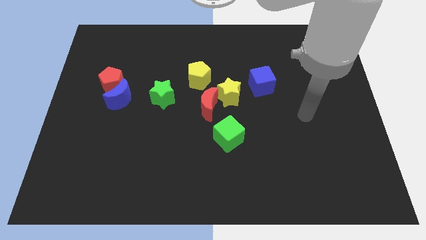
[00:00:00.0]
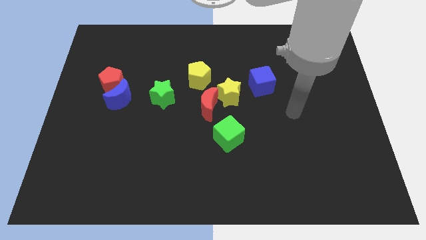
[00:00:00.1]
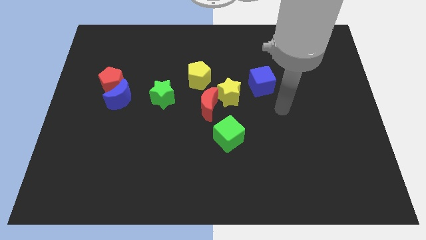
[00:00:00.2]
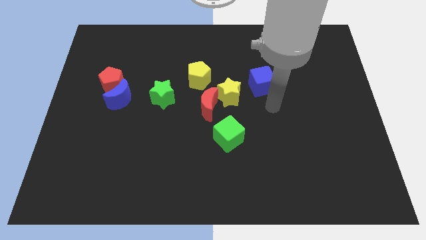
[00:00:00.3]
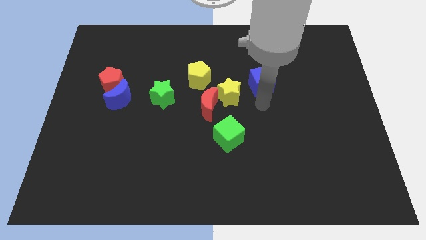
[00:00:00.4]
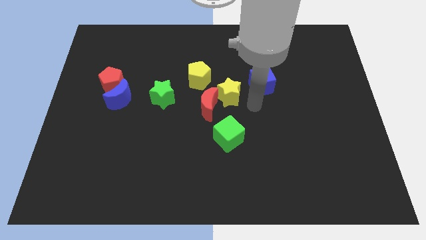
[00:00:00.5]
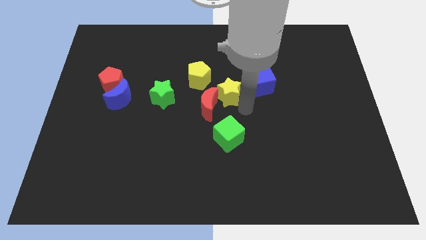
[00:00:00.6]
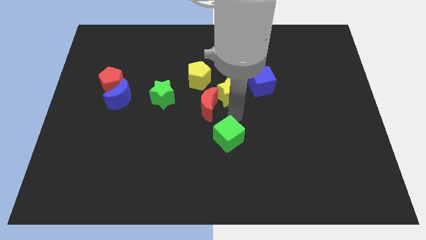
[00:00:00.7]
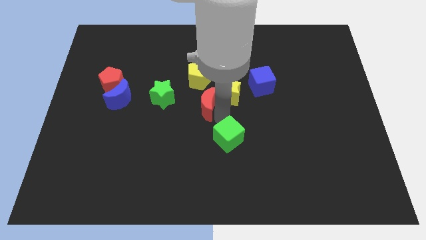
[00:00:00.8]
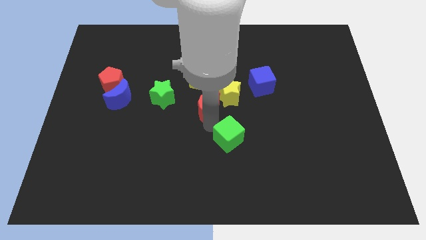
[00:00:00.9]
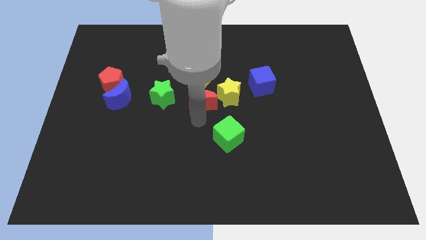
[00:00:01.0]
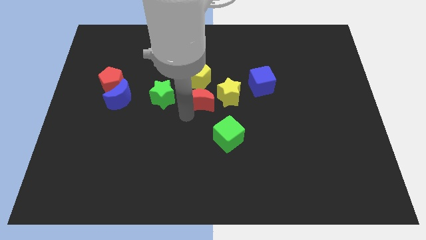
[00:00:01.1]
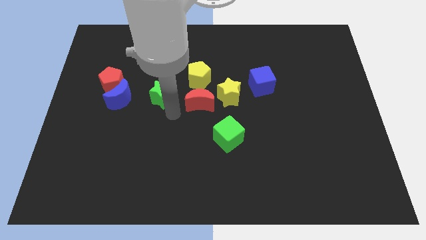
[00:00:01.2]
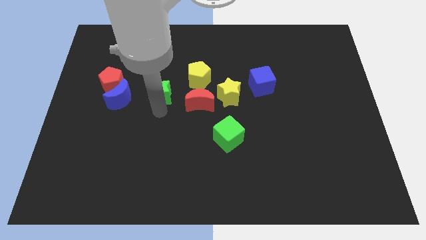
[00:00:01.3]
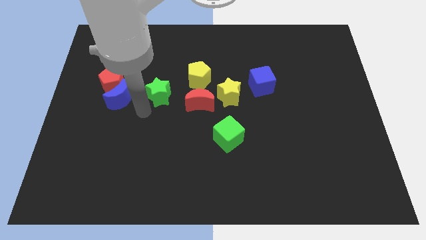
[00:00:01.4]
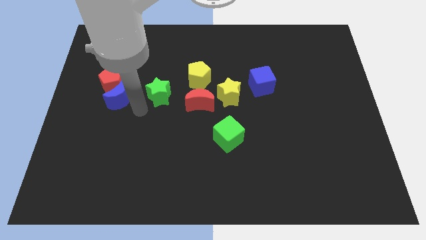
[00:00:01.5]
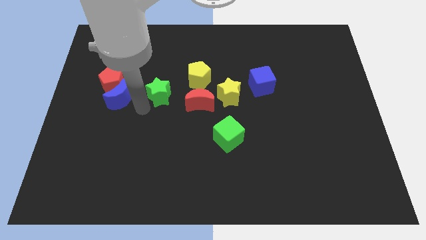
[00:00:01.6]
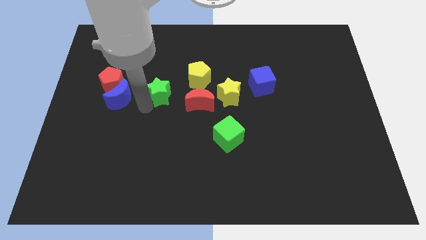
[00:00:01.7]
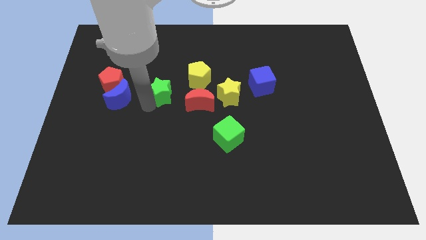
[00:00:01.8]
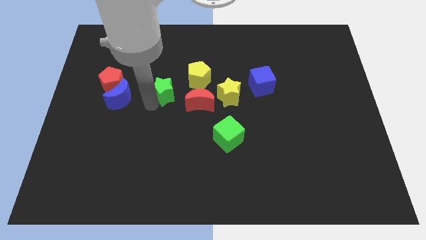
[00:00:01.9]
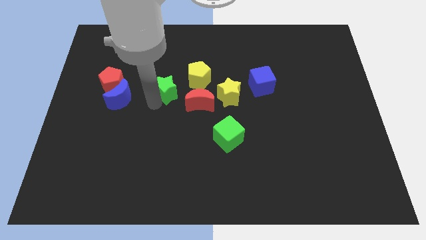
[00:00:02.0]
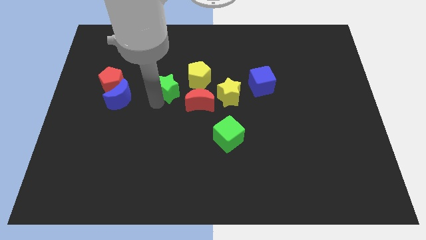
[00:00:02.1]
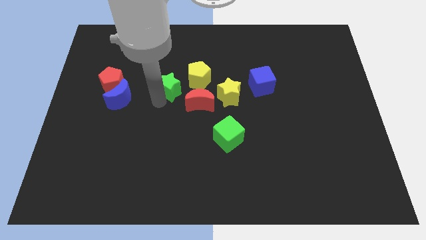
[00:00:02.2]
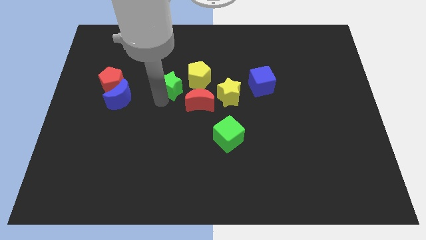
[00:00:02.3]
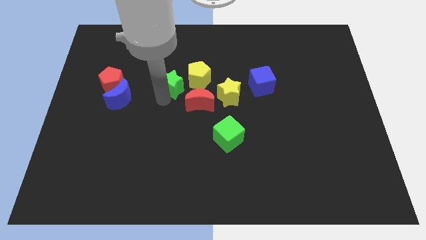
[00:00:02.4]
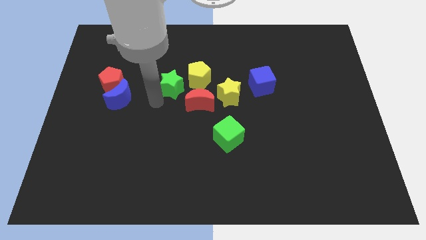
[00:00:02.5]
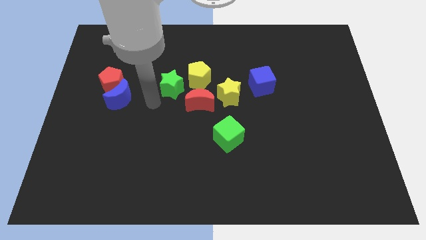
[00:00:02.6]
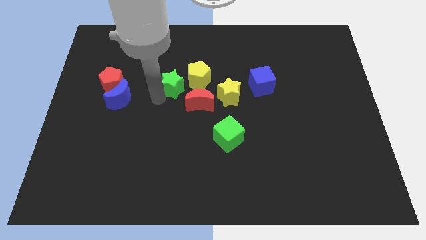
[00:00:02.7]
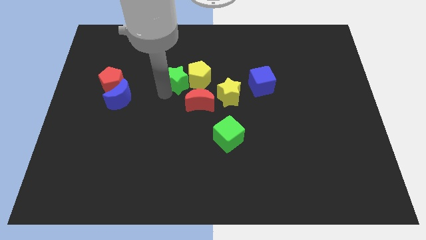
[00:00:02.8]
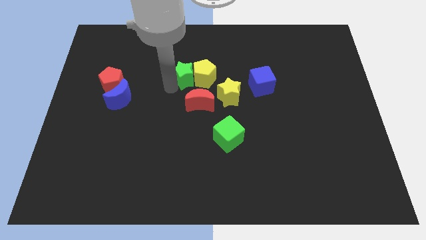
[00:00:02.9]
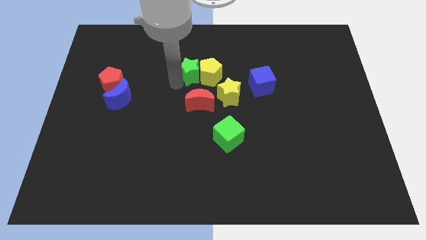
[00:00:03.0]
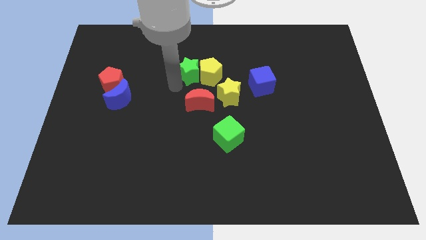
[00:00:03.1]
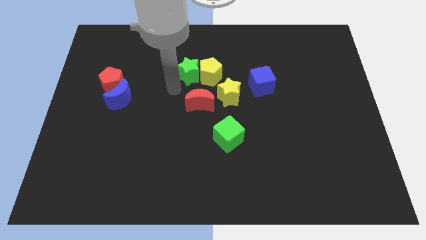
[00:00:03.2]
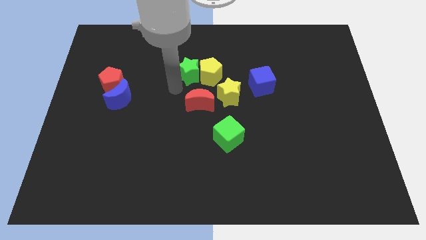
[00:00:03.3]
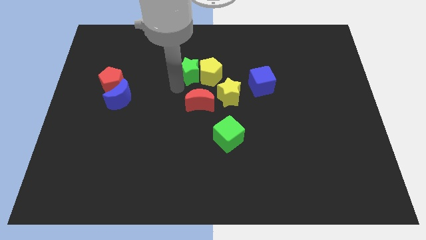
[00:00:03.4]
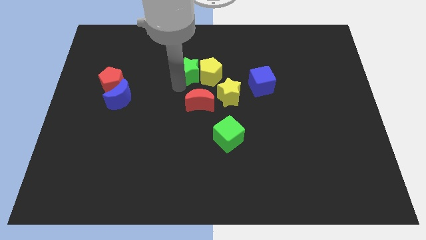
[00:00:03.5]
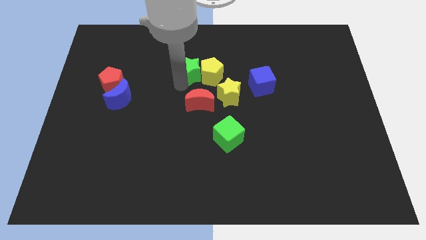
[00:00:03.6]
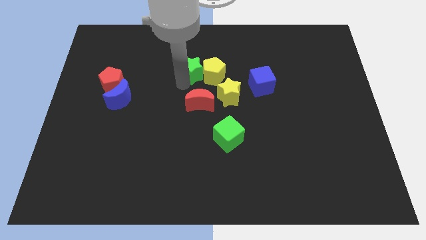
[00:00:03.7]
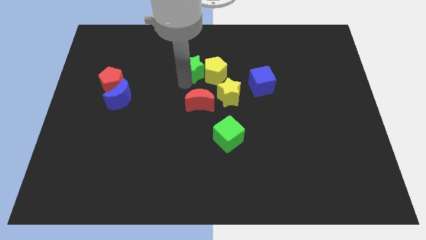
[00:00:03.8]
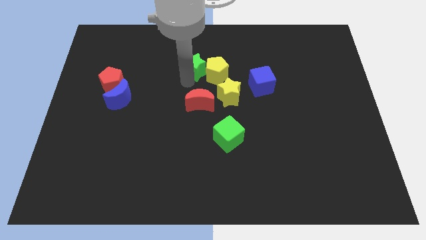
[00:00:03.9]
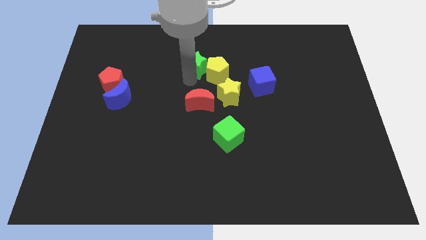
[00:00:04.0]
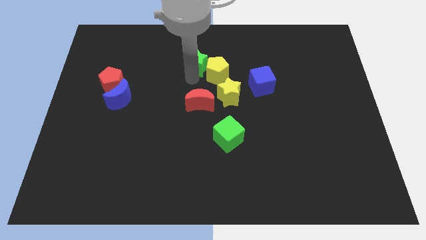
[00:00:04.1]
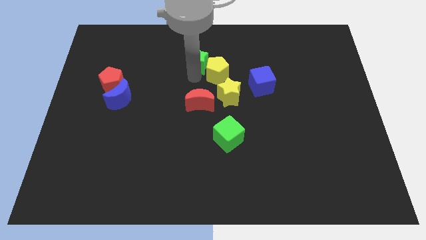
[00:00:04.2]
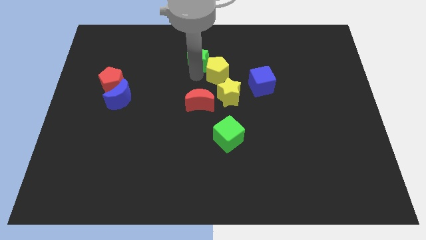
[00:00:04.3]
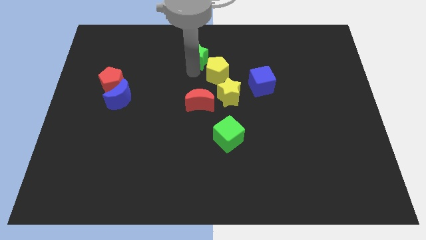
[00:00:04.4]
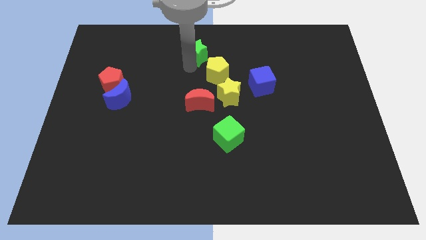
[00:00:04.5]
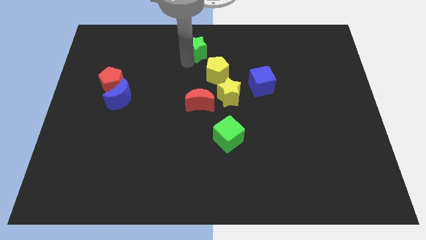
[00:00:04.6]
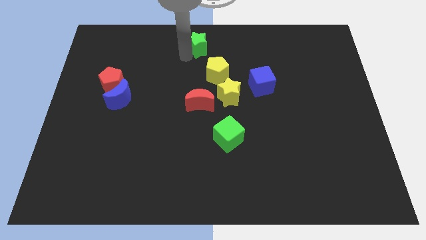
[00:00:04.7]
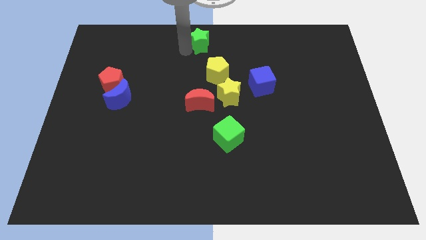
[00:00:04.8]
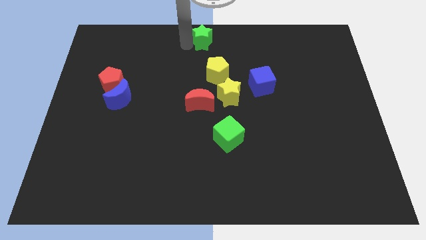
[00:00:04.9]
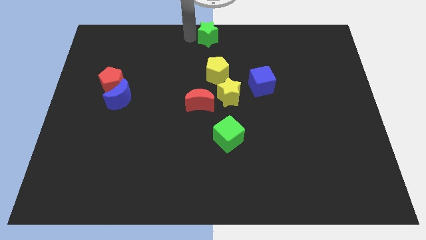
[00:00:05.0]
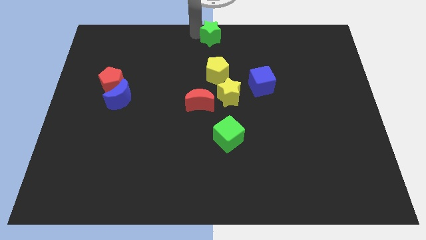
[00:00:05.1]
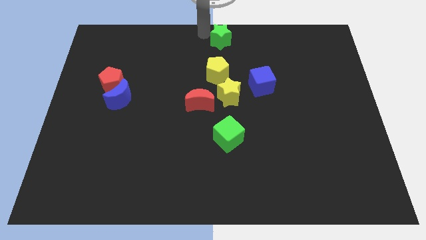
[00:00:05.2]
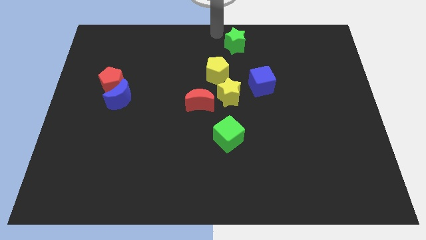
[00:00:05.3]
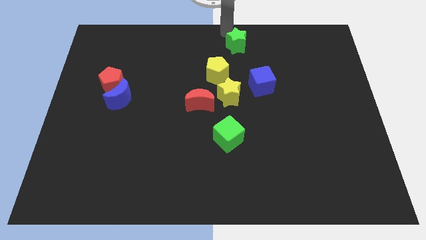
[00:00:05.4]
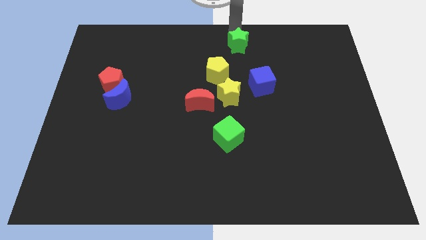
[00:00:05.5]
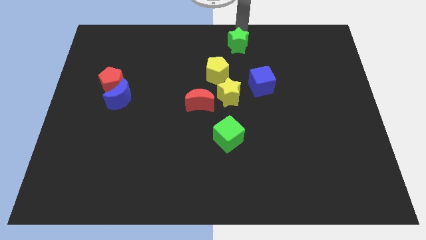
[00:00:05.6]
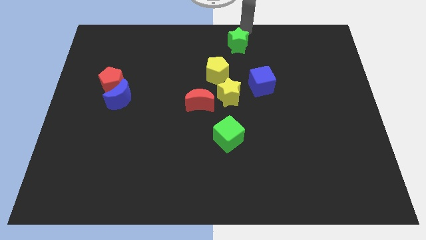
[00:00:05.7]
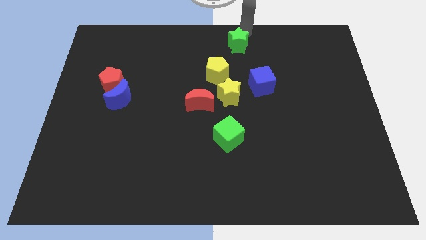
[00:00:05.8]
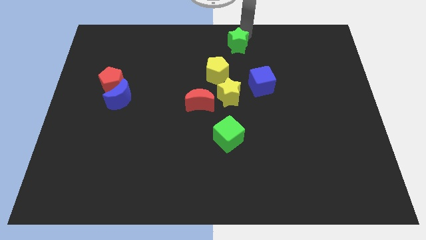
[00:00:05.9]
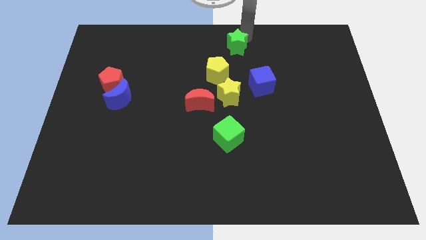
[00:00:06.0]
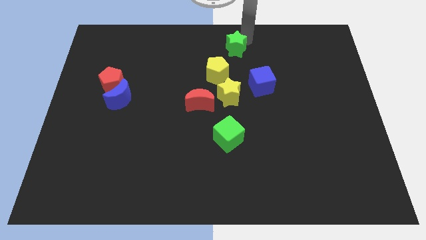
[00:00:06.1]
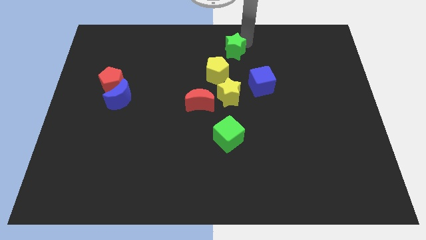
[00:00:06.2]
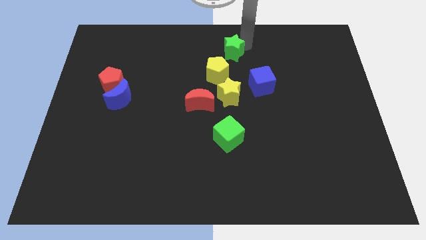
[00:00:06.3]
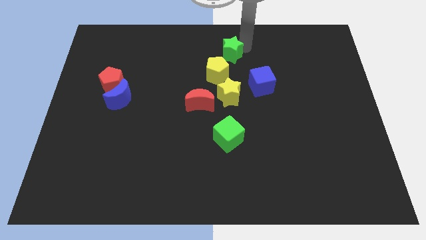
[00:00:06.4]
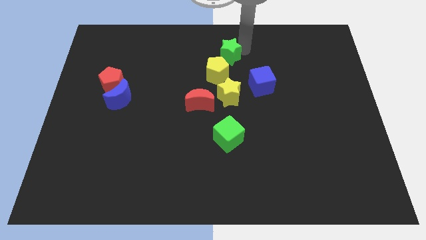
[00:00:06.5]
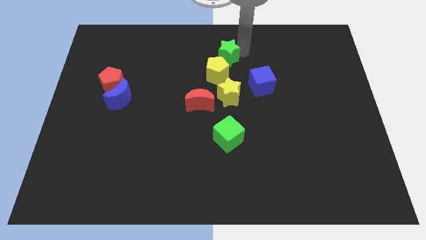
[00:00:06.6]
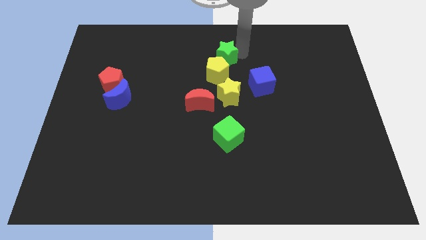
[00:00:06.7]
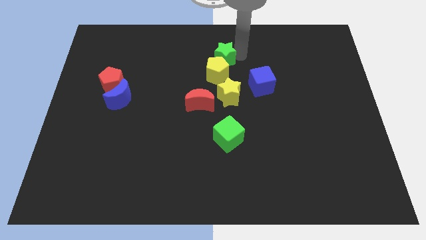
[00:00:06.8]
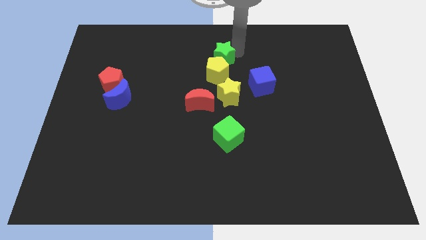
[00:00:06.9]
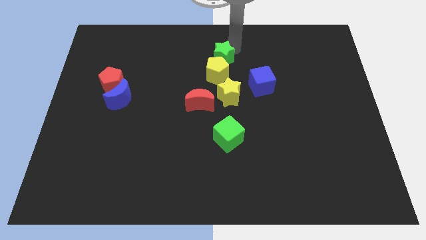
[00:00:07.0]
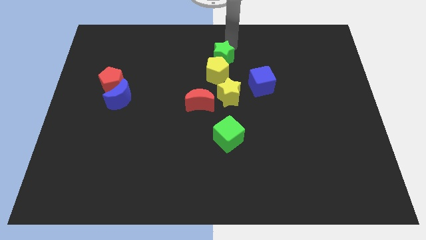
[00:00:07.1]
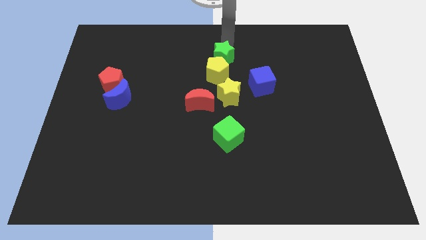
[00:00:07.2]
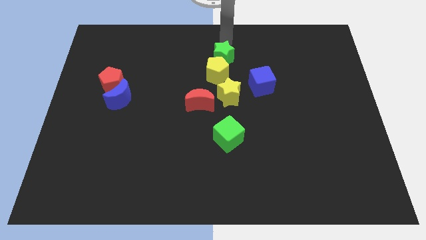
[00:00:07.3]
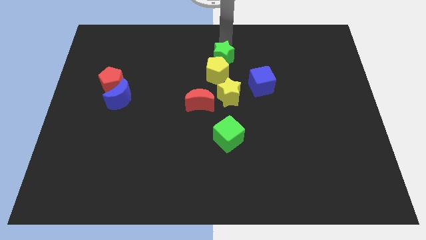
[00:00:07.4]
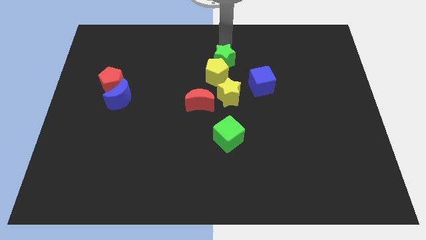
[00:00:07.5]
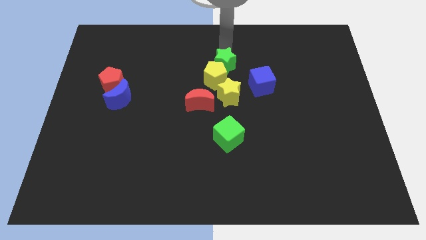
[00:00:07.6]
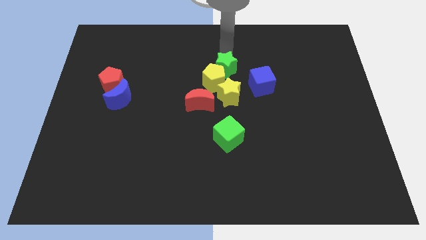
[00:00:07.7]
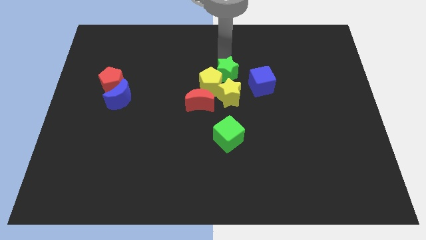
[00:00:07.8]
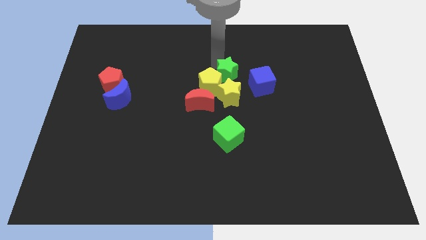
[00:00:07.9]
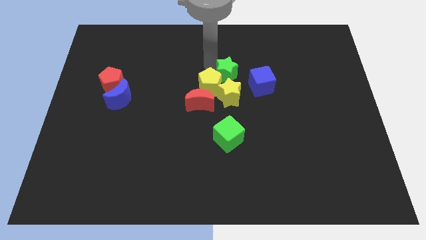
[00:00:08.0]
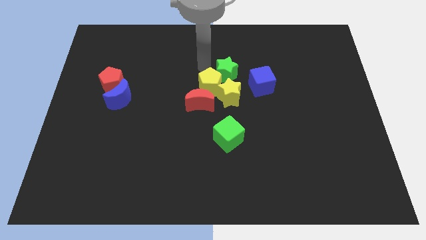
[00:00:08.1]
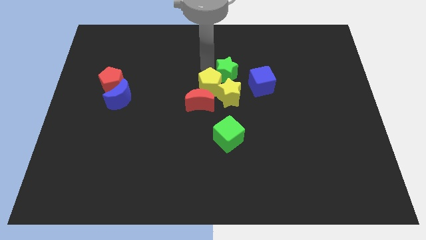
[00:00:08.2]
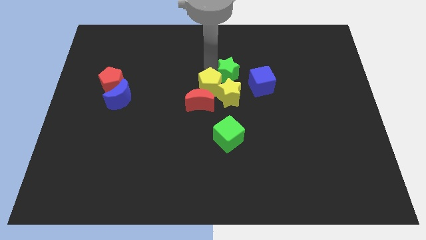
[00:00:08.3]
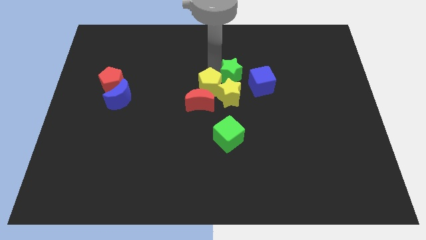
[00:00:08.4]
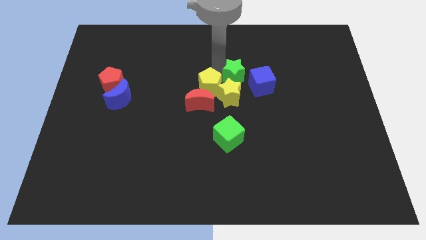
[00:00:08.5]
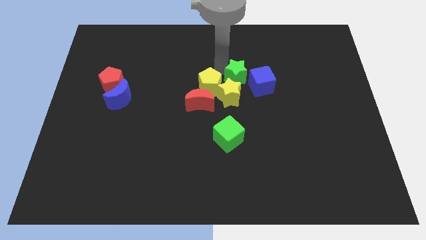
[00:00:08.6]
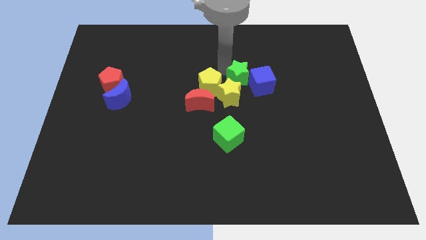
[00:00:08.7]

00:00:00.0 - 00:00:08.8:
move the green star towards the blue cube
